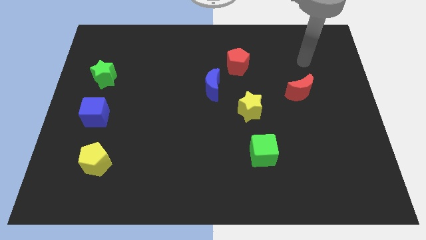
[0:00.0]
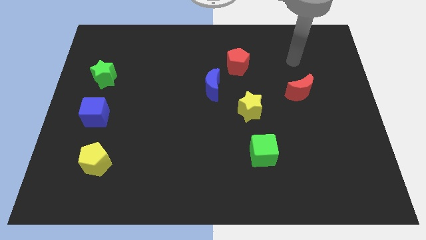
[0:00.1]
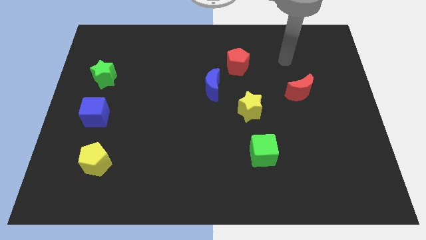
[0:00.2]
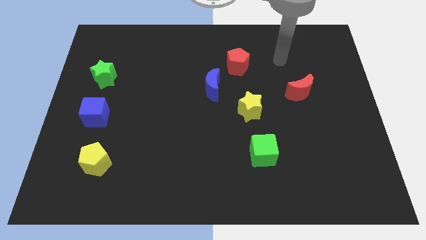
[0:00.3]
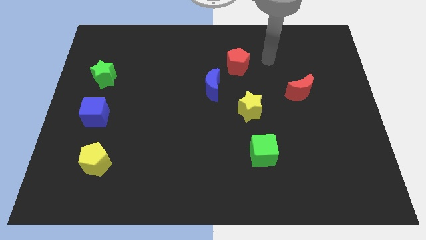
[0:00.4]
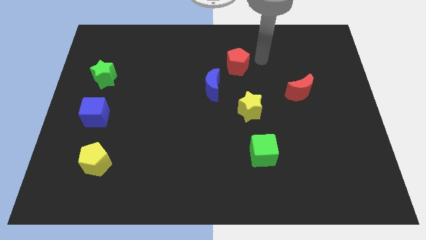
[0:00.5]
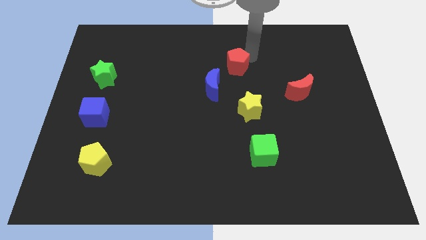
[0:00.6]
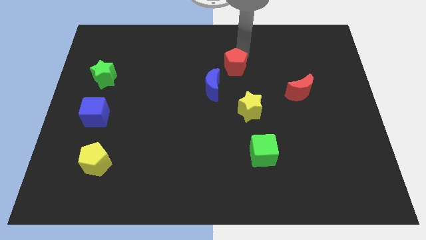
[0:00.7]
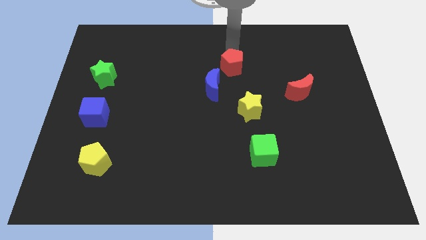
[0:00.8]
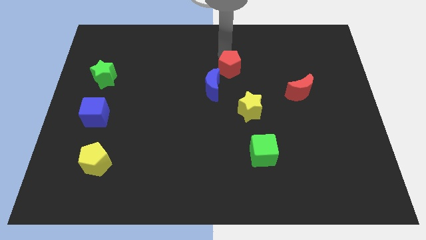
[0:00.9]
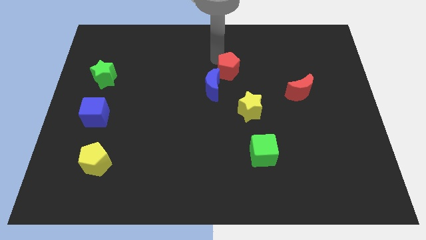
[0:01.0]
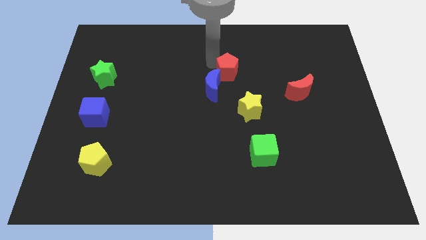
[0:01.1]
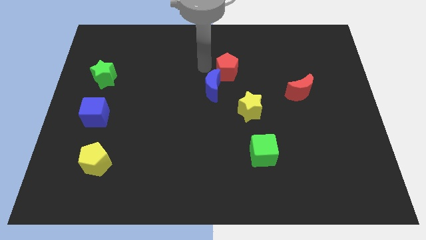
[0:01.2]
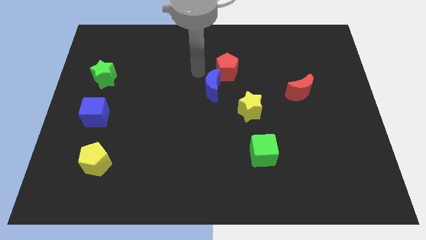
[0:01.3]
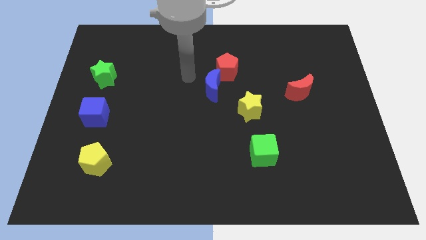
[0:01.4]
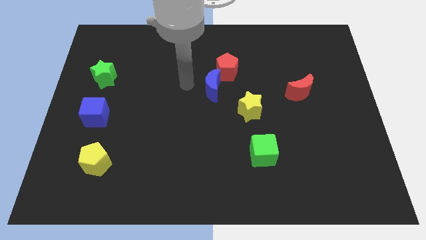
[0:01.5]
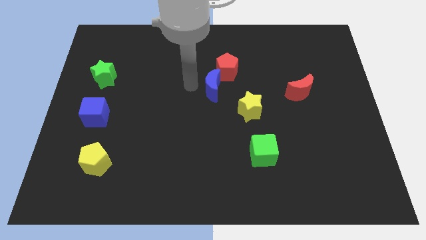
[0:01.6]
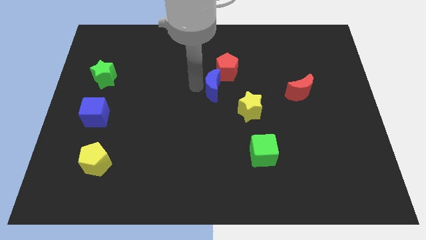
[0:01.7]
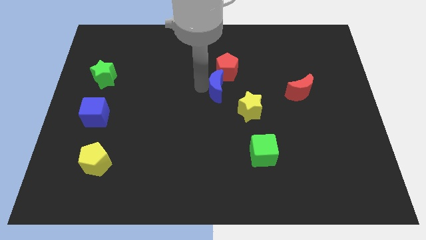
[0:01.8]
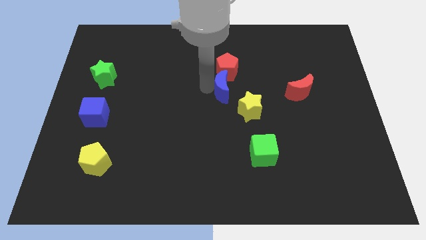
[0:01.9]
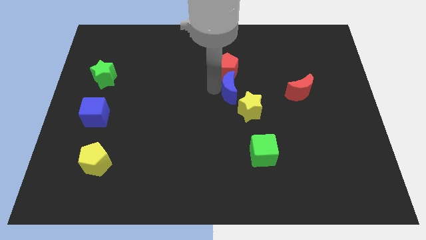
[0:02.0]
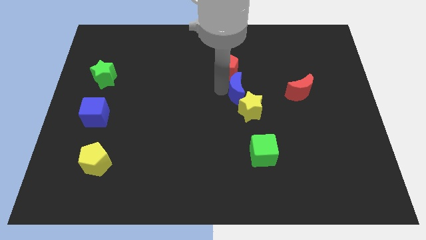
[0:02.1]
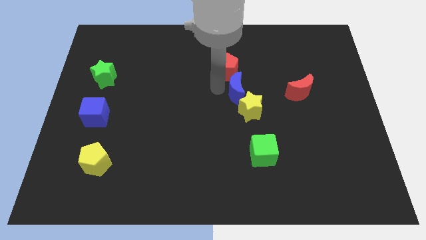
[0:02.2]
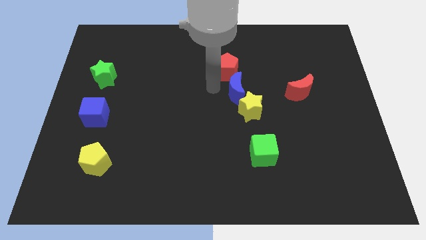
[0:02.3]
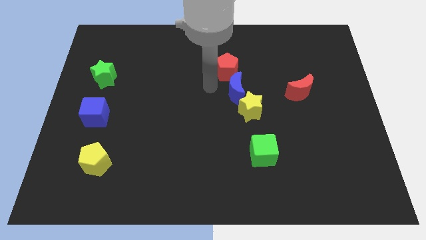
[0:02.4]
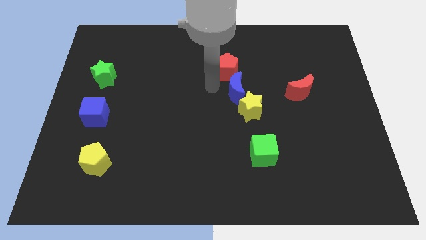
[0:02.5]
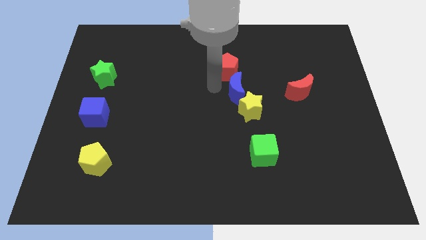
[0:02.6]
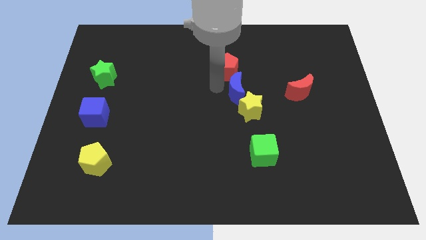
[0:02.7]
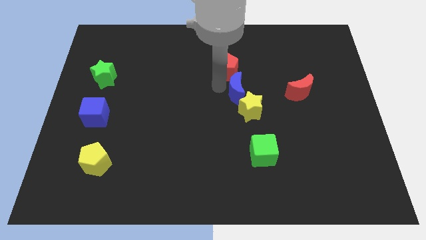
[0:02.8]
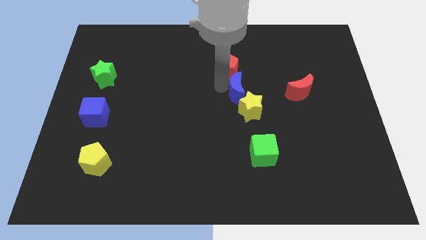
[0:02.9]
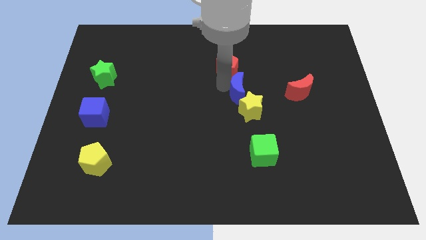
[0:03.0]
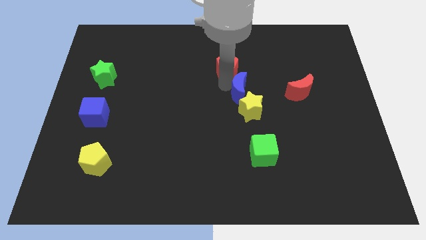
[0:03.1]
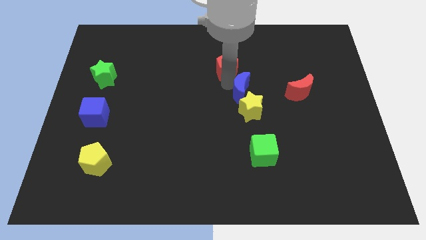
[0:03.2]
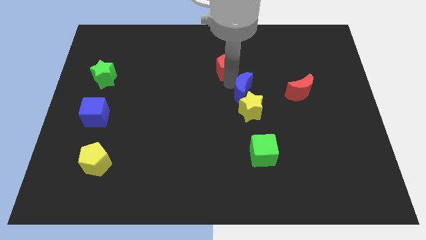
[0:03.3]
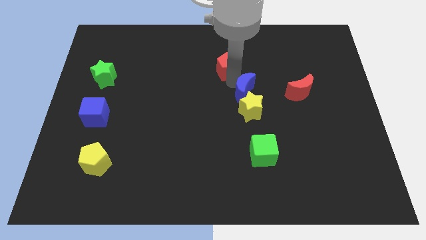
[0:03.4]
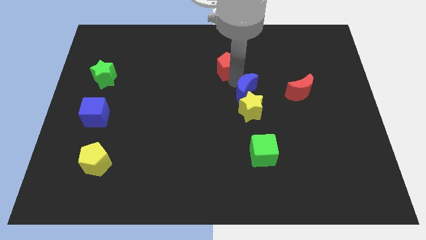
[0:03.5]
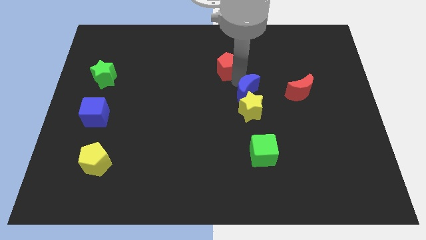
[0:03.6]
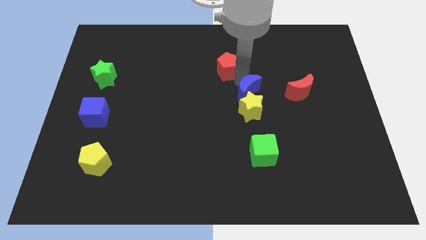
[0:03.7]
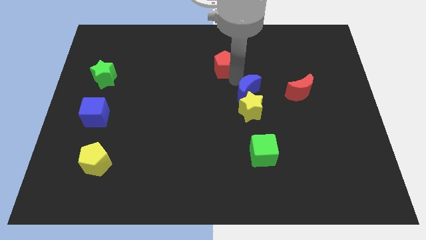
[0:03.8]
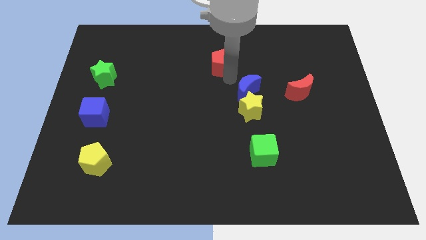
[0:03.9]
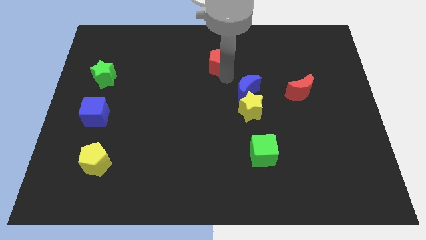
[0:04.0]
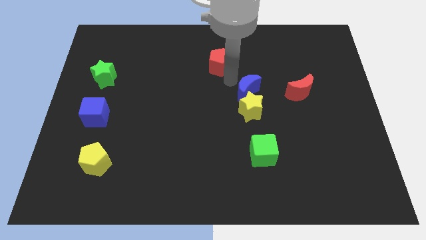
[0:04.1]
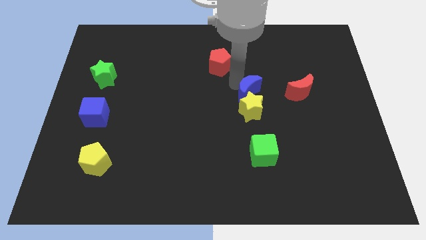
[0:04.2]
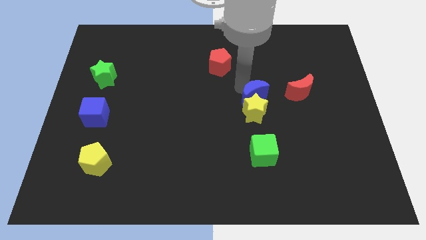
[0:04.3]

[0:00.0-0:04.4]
slide the blue moon down and right a bit

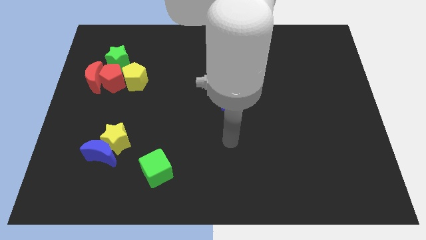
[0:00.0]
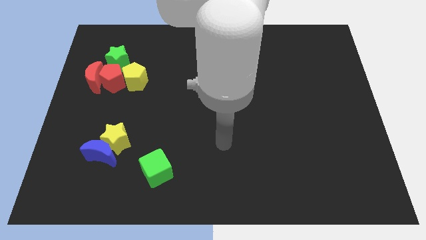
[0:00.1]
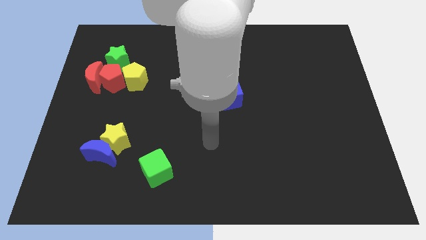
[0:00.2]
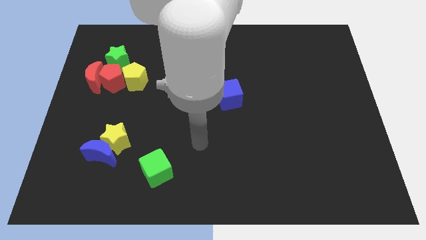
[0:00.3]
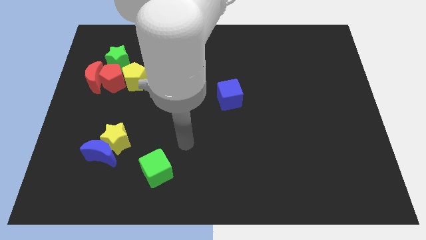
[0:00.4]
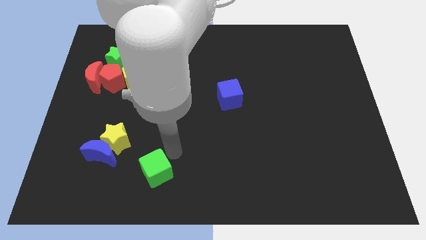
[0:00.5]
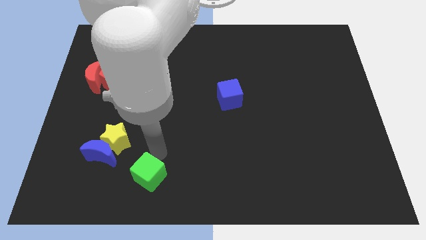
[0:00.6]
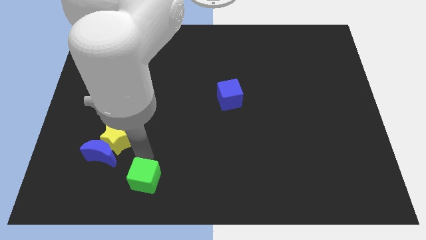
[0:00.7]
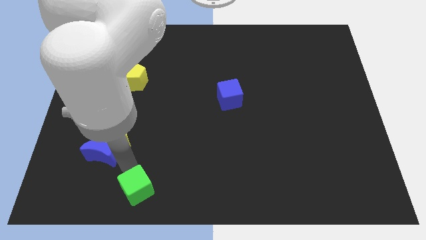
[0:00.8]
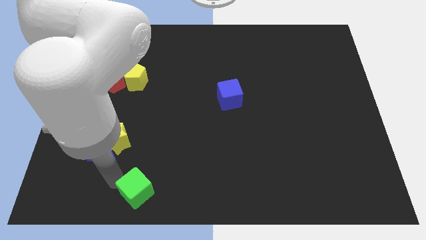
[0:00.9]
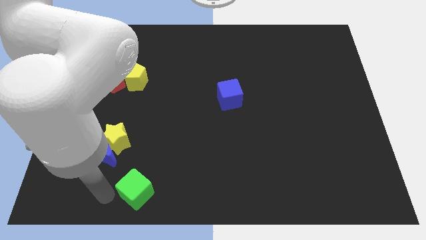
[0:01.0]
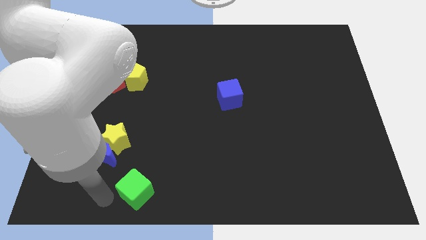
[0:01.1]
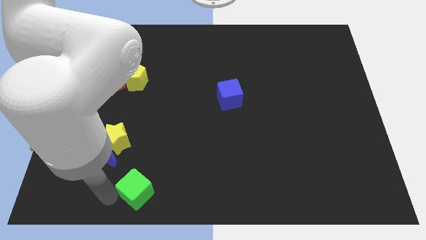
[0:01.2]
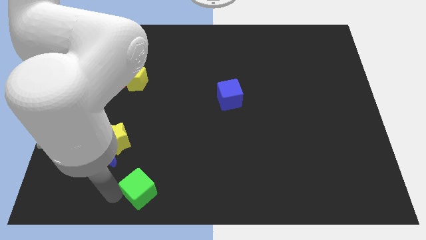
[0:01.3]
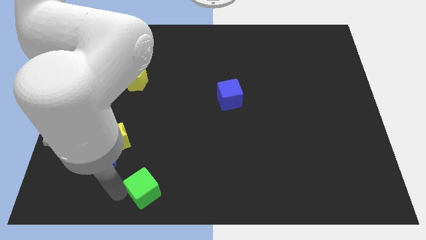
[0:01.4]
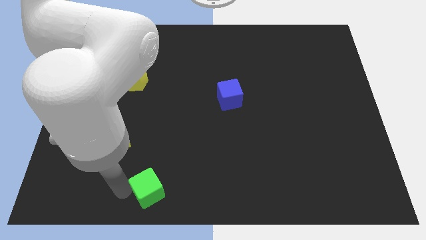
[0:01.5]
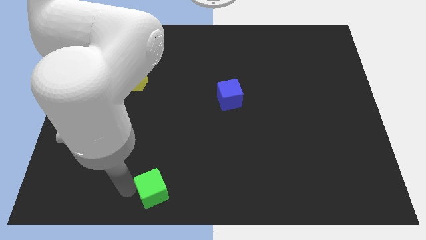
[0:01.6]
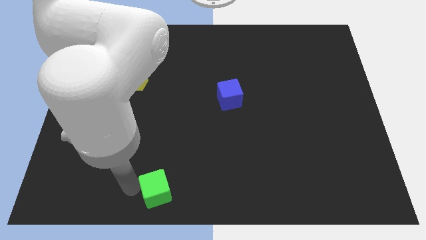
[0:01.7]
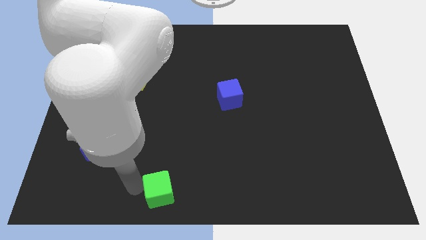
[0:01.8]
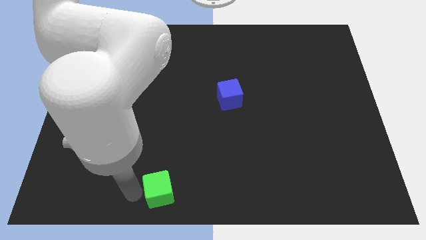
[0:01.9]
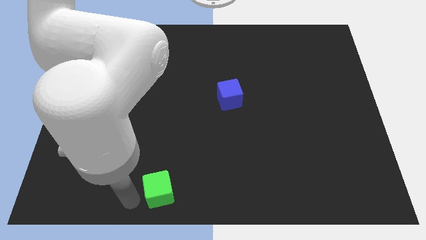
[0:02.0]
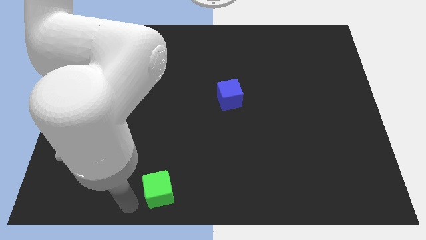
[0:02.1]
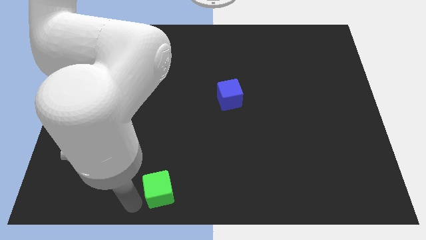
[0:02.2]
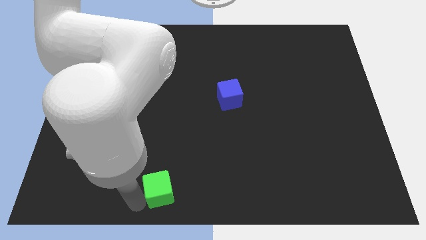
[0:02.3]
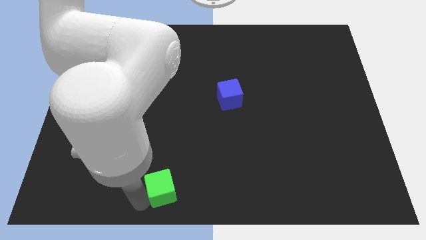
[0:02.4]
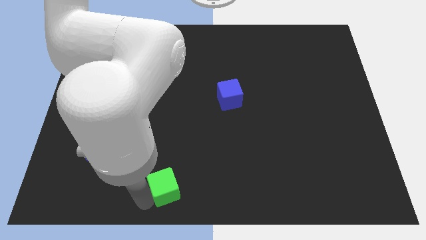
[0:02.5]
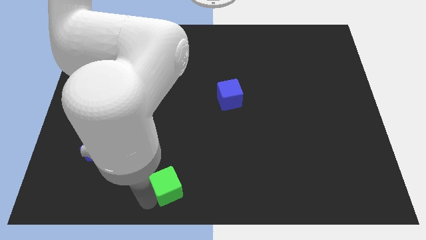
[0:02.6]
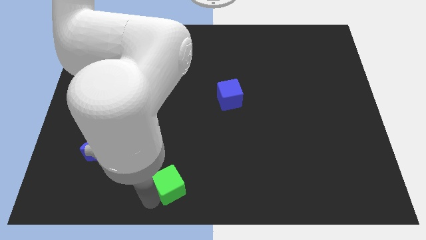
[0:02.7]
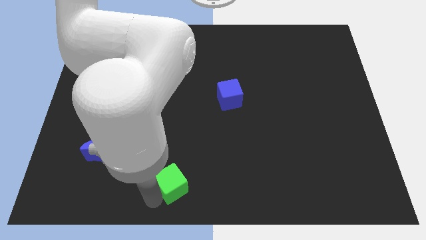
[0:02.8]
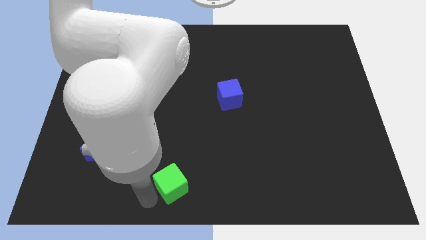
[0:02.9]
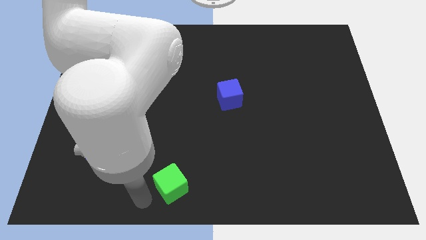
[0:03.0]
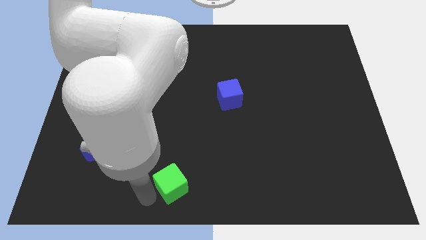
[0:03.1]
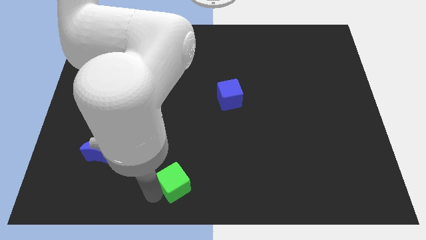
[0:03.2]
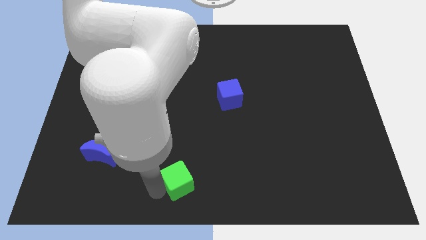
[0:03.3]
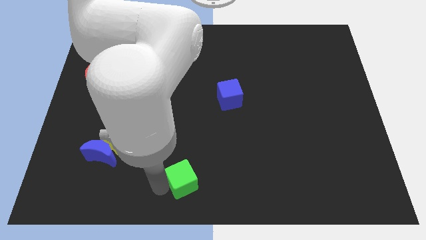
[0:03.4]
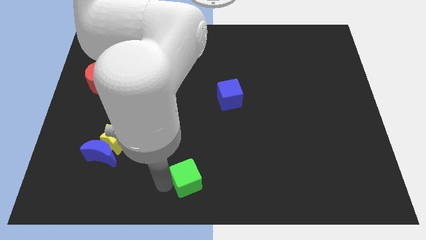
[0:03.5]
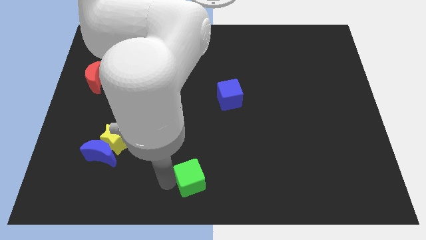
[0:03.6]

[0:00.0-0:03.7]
slide the green cube a little right
